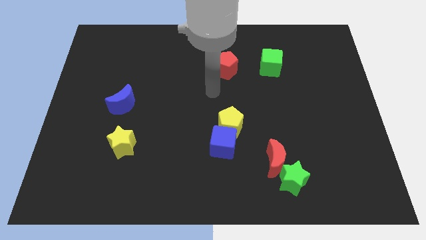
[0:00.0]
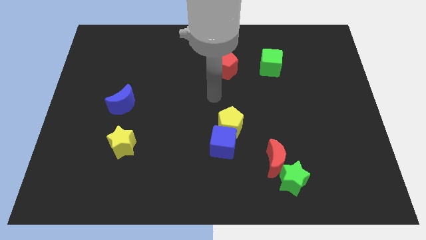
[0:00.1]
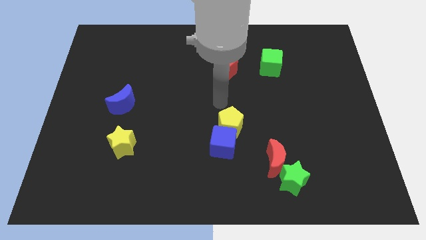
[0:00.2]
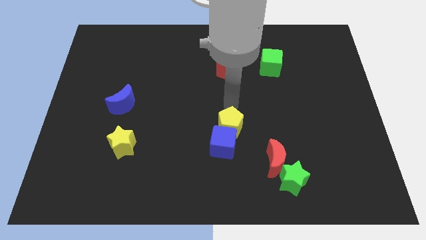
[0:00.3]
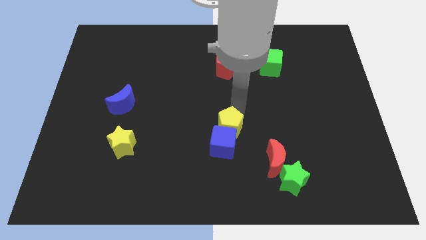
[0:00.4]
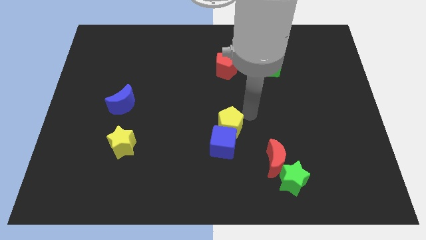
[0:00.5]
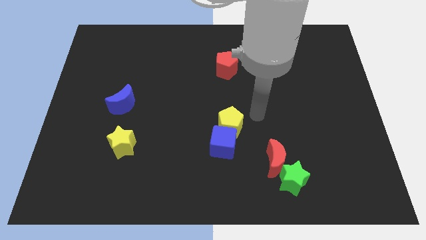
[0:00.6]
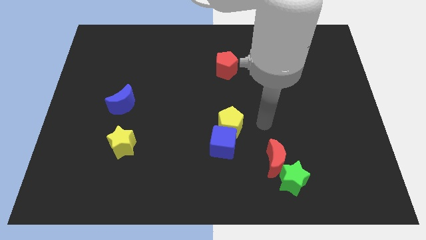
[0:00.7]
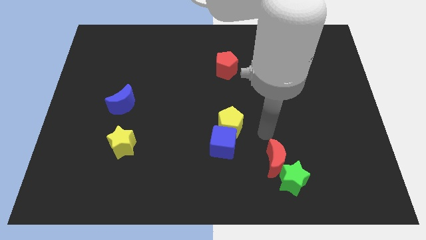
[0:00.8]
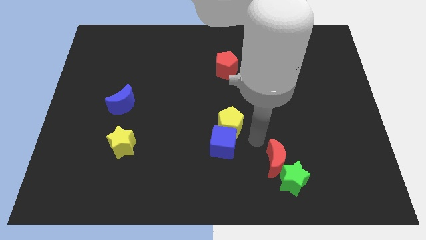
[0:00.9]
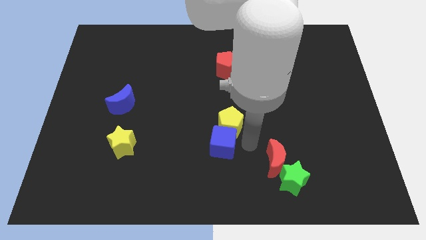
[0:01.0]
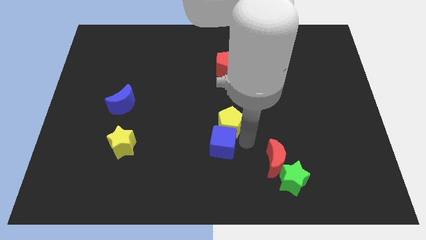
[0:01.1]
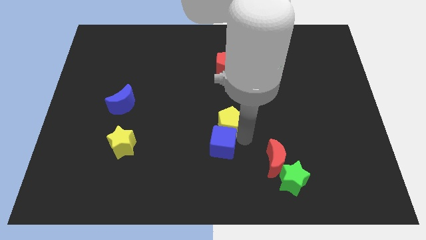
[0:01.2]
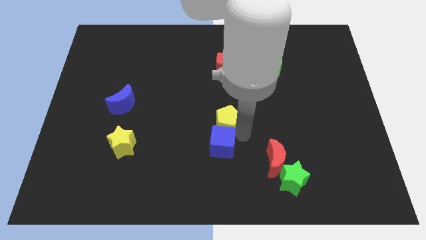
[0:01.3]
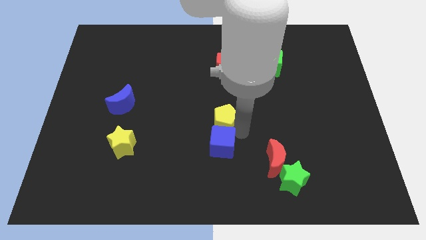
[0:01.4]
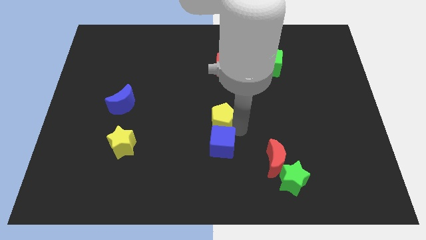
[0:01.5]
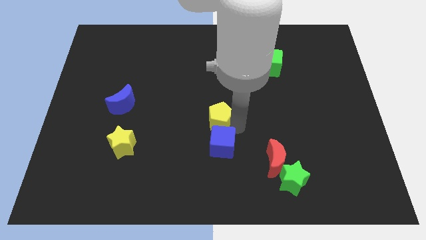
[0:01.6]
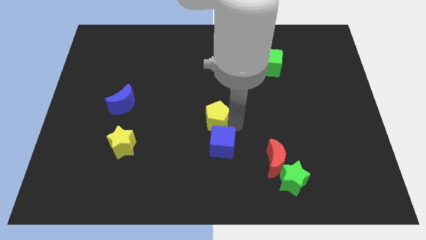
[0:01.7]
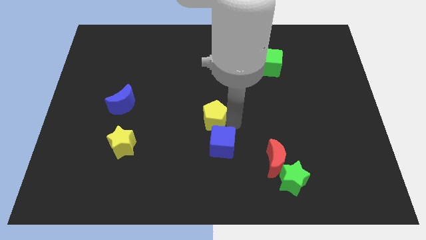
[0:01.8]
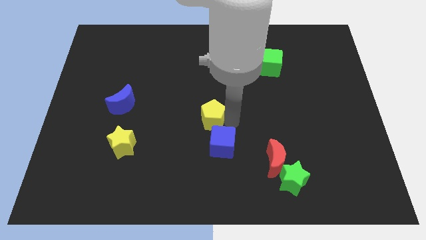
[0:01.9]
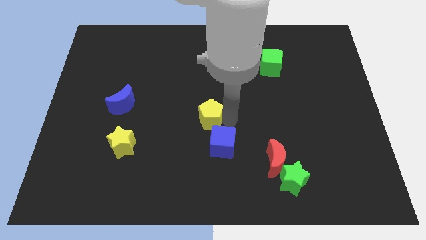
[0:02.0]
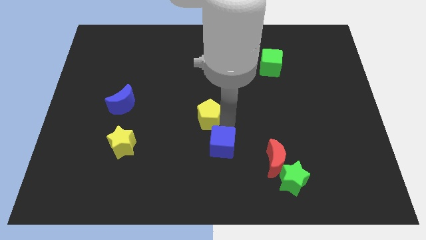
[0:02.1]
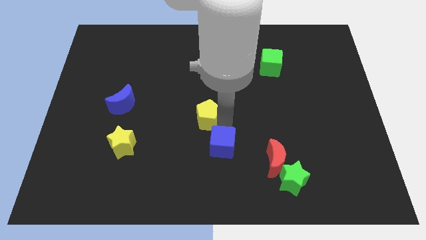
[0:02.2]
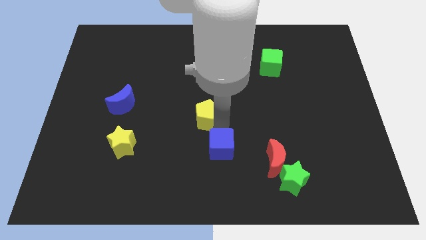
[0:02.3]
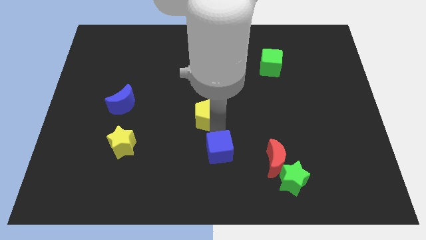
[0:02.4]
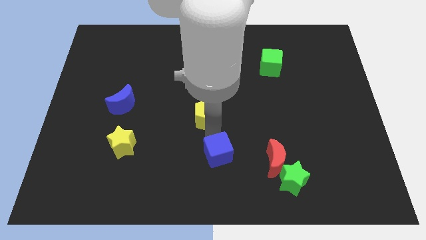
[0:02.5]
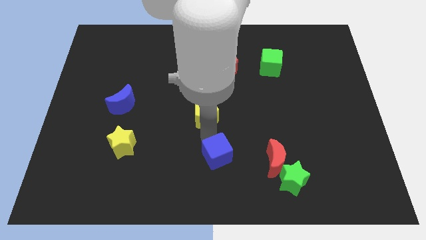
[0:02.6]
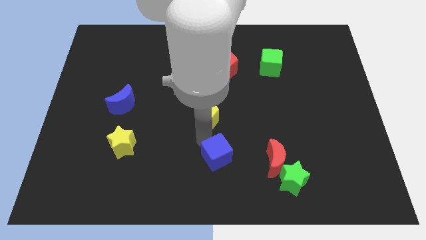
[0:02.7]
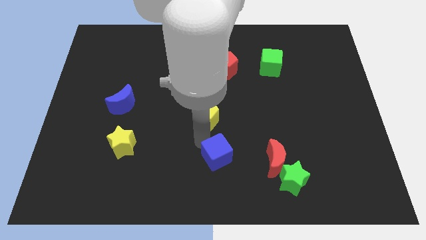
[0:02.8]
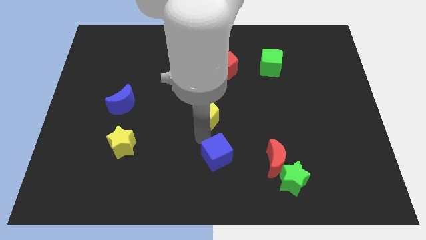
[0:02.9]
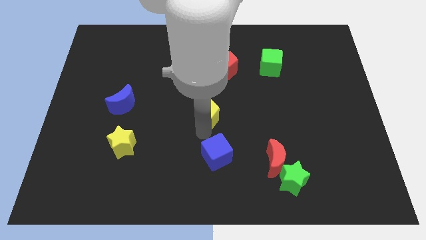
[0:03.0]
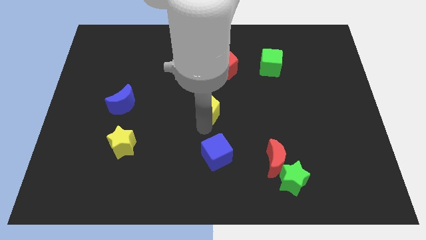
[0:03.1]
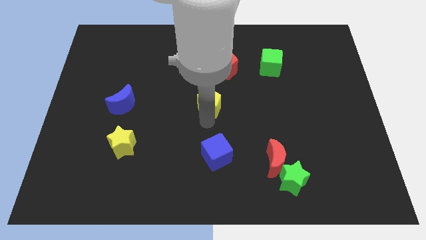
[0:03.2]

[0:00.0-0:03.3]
slightly move the yellow pentagon up and then to the left

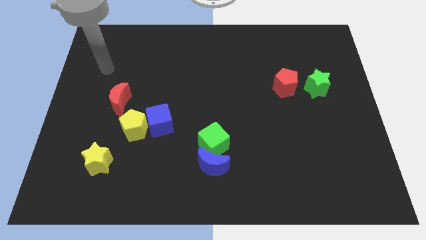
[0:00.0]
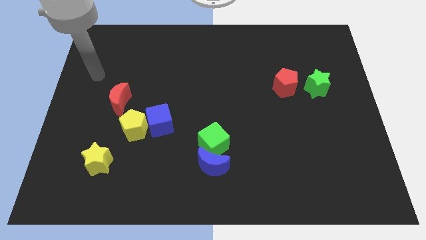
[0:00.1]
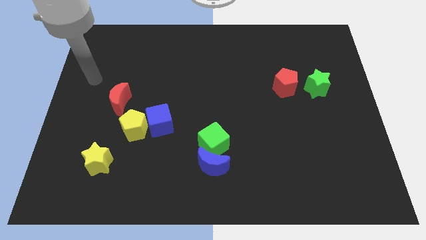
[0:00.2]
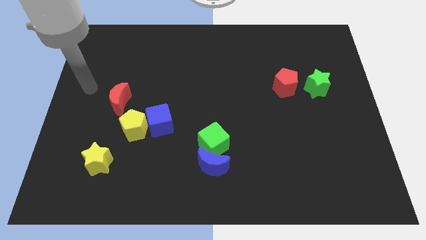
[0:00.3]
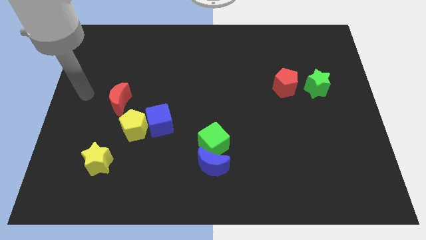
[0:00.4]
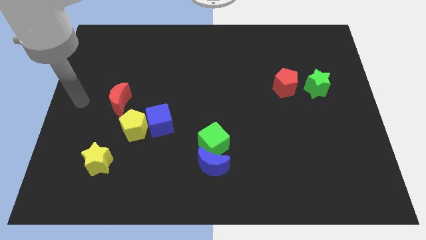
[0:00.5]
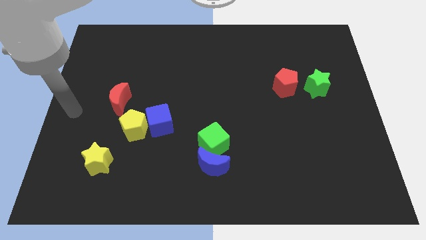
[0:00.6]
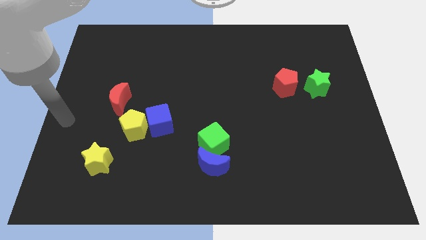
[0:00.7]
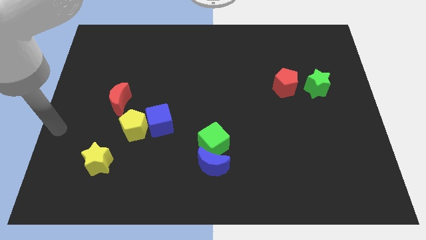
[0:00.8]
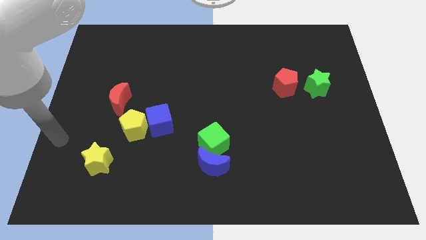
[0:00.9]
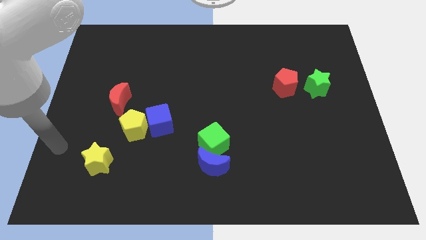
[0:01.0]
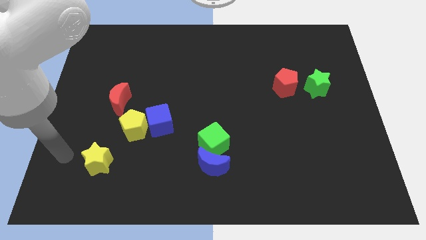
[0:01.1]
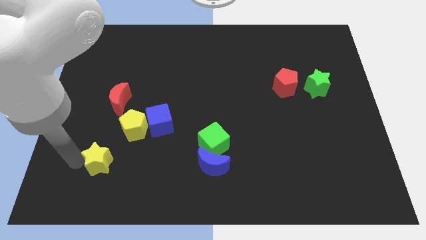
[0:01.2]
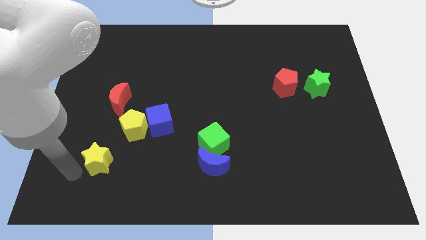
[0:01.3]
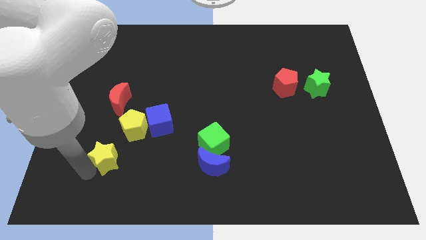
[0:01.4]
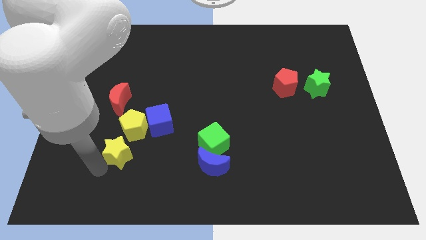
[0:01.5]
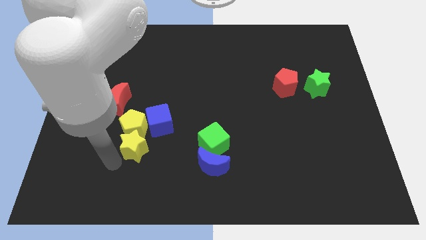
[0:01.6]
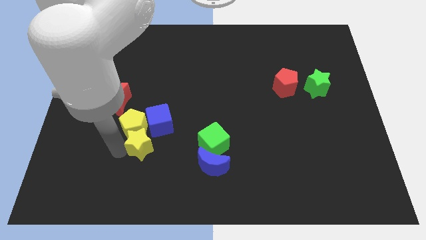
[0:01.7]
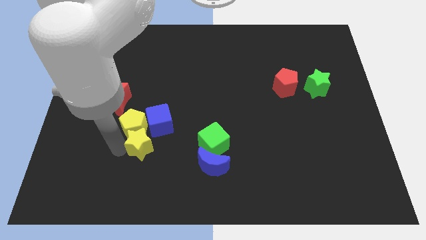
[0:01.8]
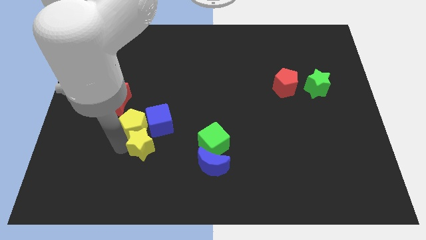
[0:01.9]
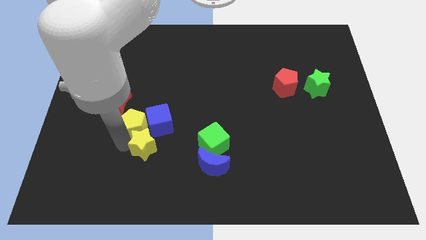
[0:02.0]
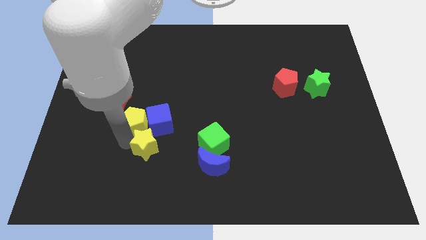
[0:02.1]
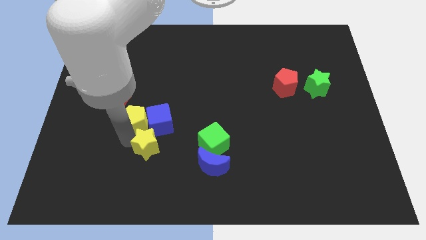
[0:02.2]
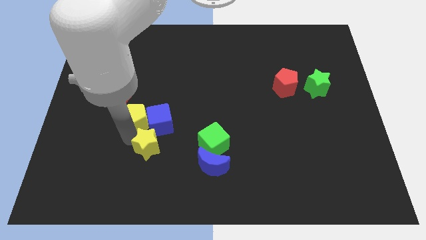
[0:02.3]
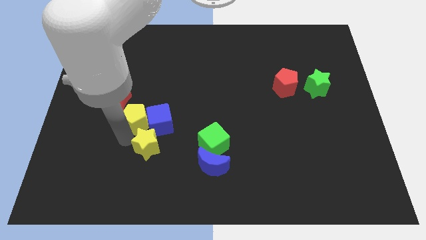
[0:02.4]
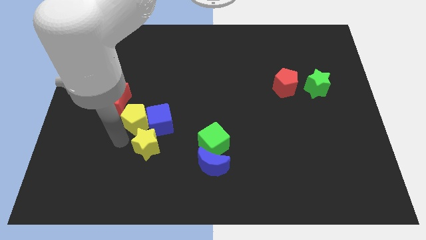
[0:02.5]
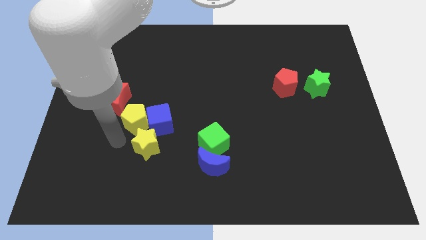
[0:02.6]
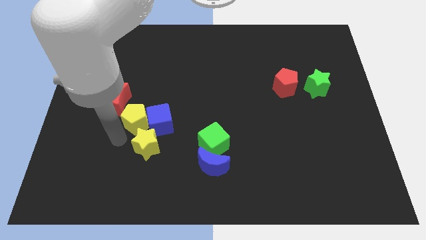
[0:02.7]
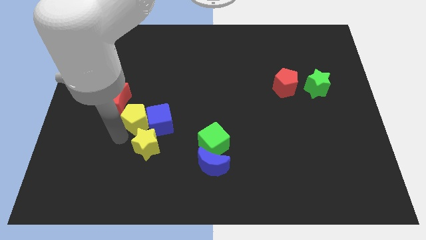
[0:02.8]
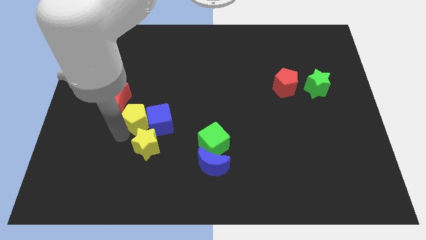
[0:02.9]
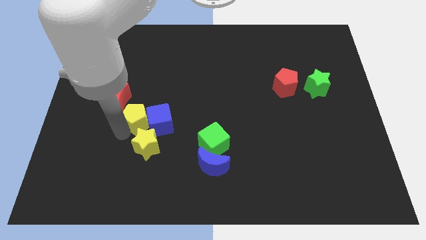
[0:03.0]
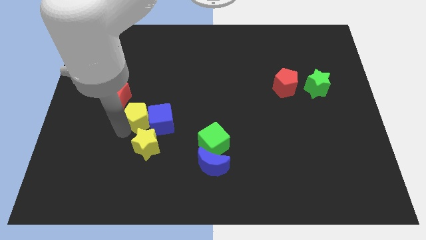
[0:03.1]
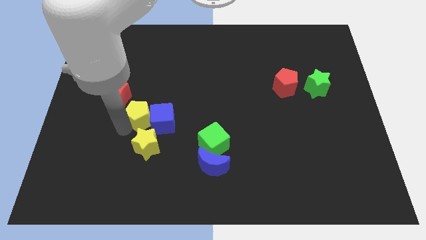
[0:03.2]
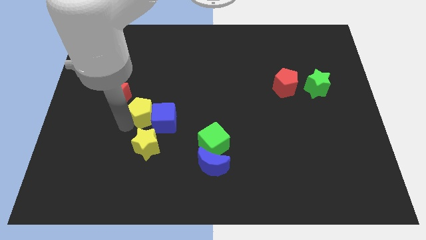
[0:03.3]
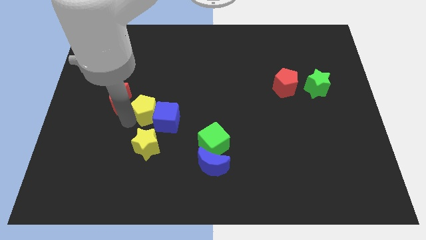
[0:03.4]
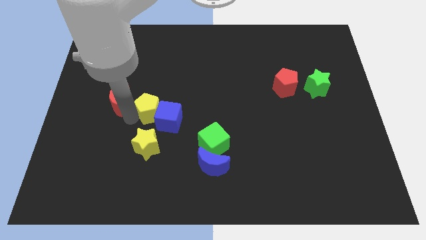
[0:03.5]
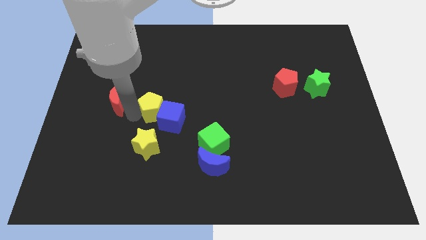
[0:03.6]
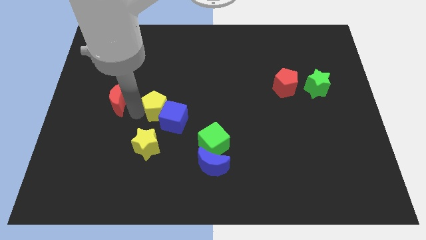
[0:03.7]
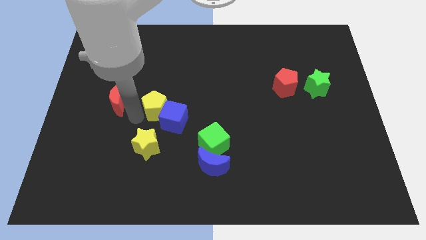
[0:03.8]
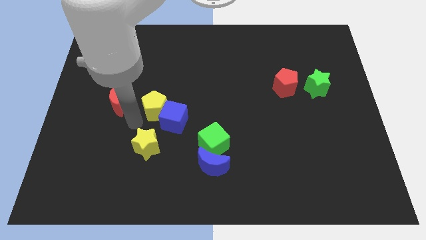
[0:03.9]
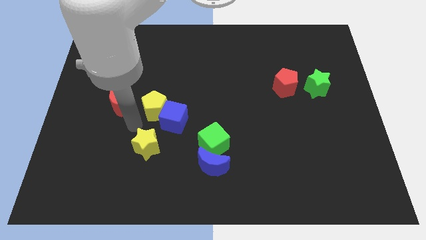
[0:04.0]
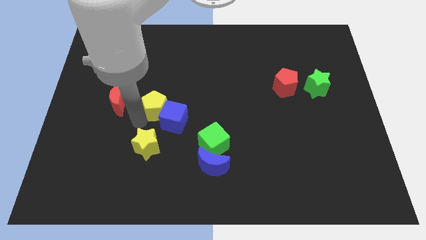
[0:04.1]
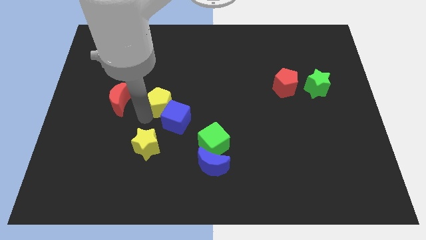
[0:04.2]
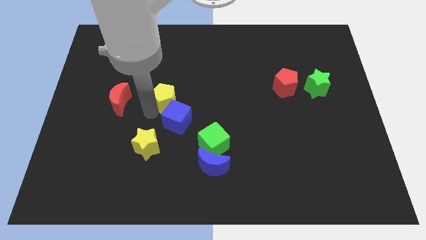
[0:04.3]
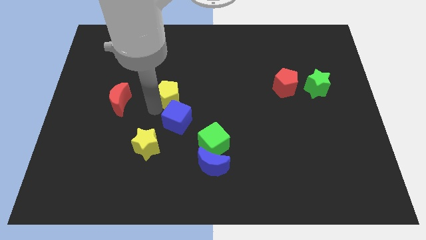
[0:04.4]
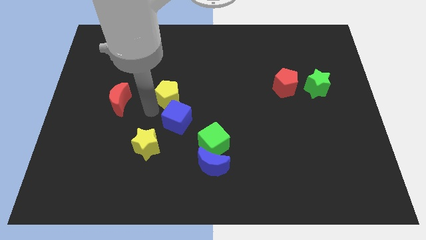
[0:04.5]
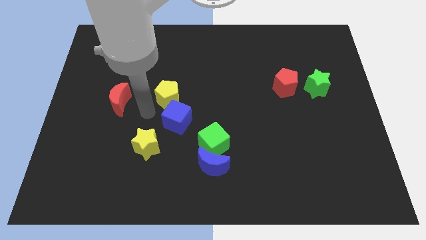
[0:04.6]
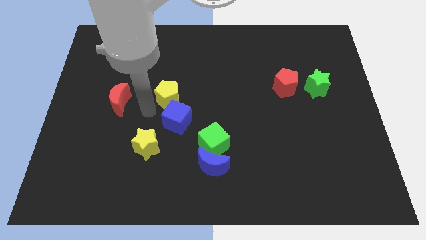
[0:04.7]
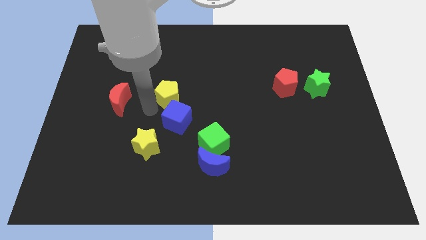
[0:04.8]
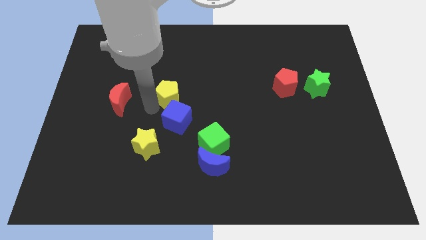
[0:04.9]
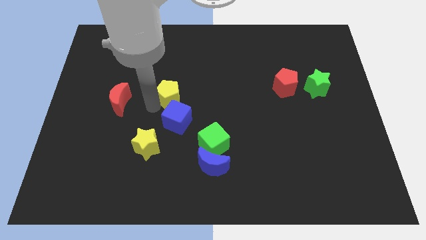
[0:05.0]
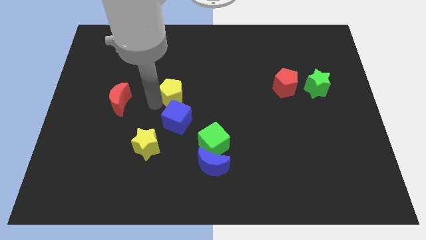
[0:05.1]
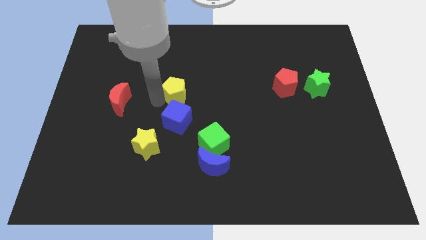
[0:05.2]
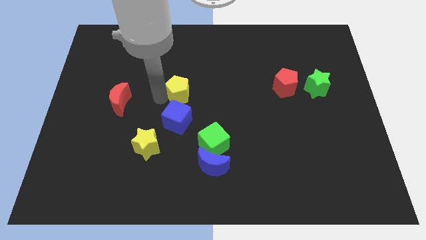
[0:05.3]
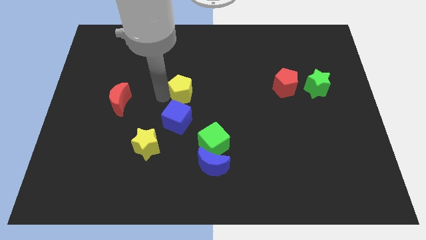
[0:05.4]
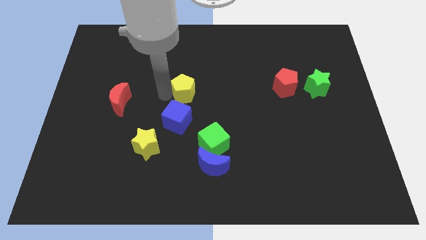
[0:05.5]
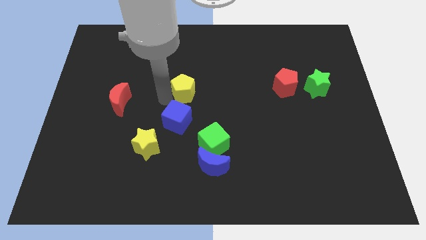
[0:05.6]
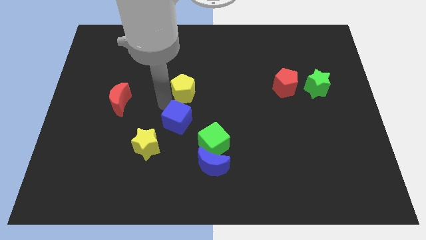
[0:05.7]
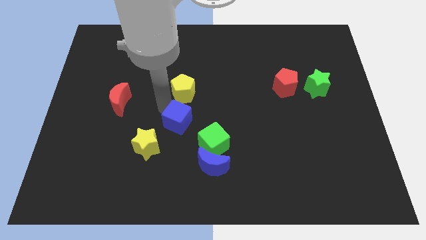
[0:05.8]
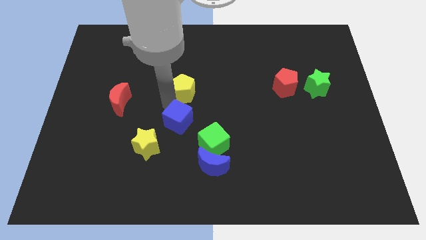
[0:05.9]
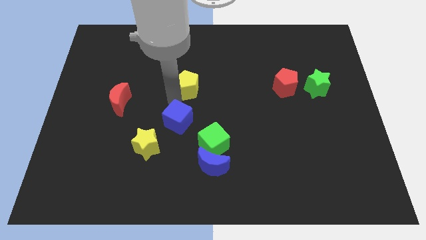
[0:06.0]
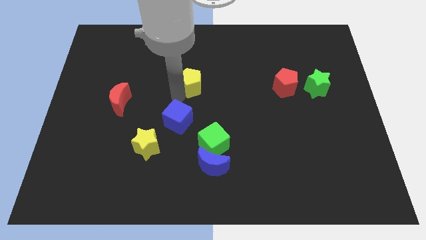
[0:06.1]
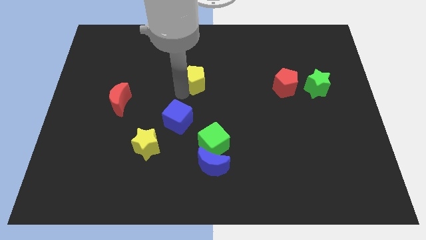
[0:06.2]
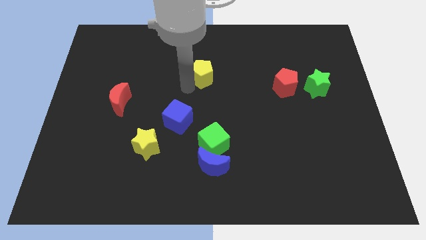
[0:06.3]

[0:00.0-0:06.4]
move the yellow pentagon upwards and then right
